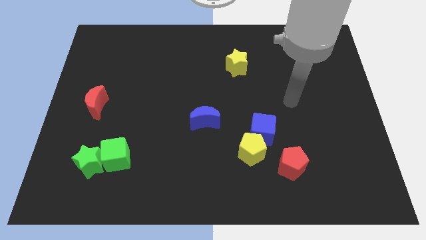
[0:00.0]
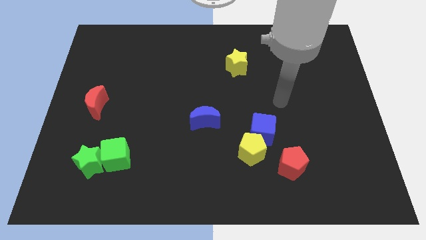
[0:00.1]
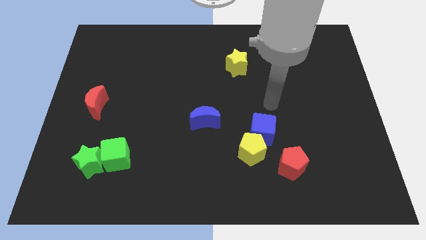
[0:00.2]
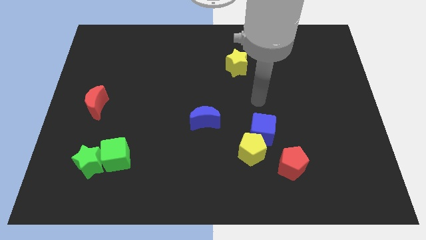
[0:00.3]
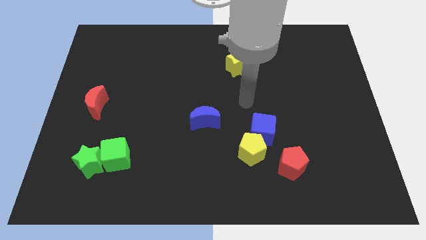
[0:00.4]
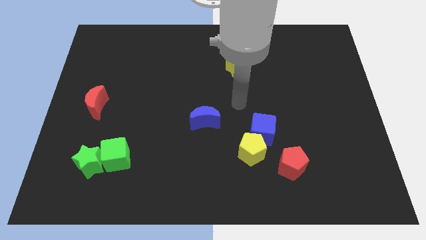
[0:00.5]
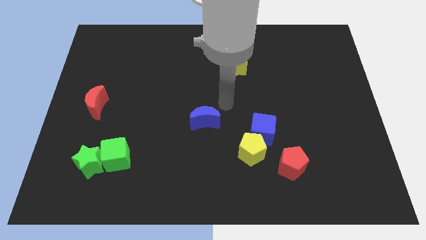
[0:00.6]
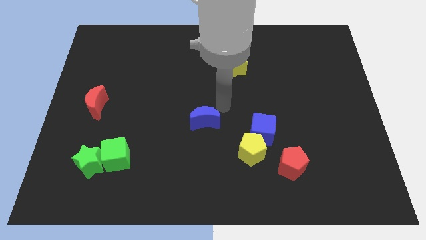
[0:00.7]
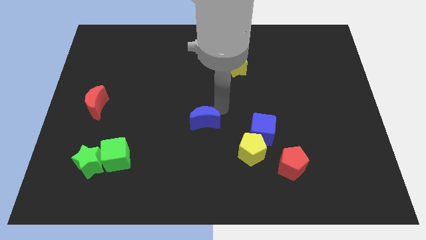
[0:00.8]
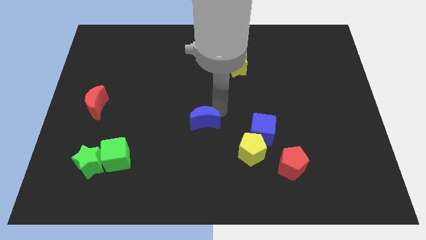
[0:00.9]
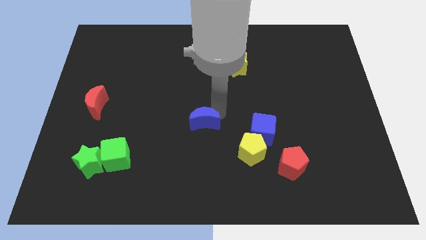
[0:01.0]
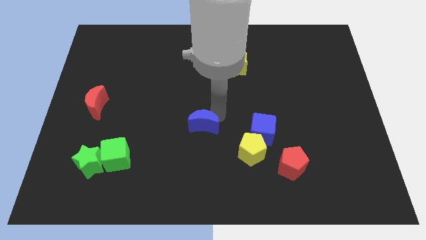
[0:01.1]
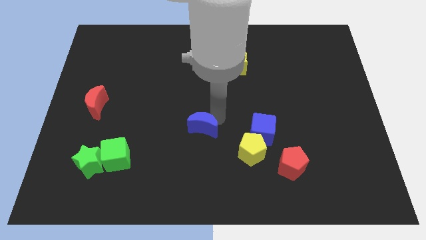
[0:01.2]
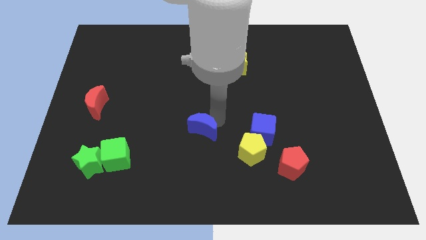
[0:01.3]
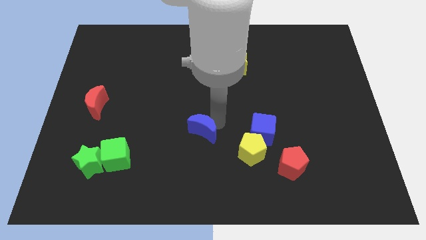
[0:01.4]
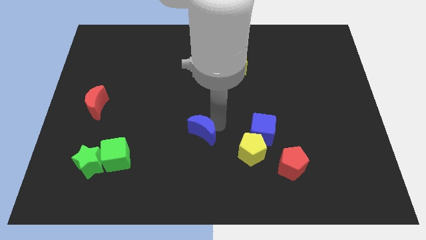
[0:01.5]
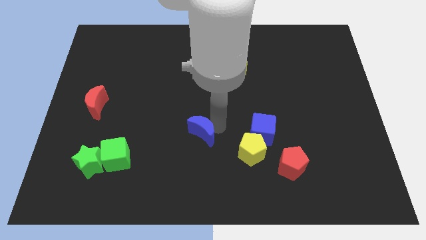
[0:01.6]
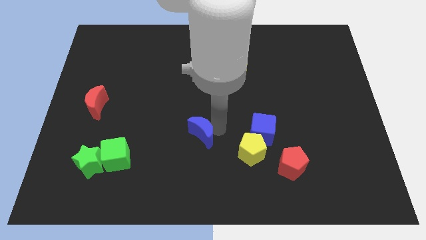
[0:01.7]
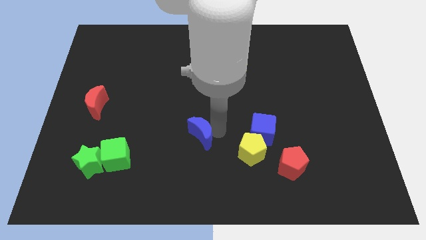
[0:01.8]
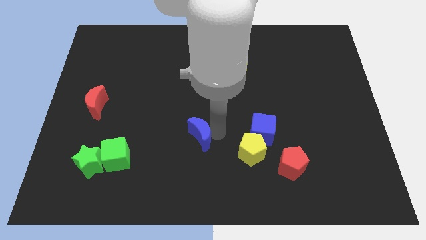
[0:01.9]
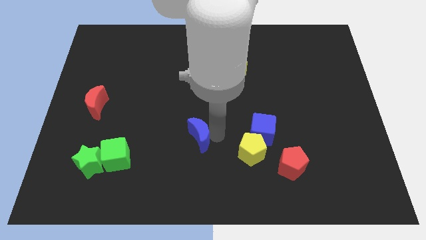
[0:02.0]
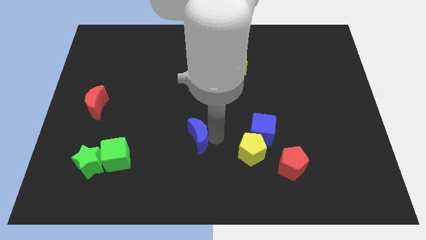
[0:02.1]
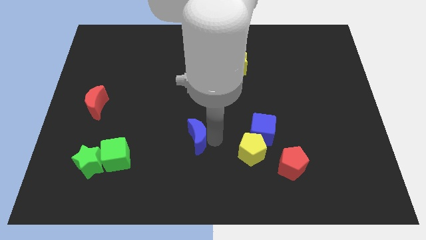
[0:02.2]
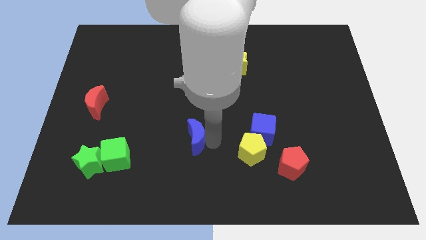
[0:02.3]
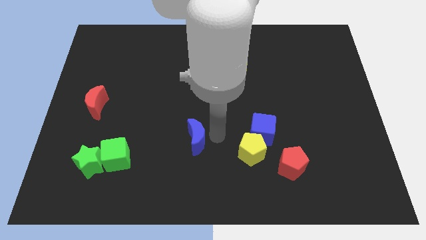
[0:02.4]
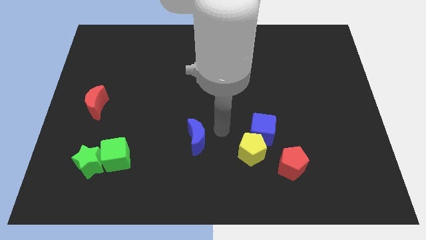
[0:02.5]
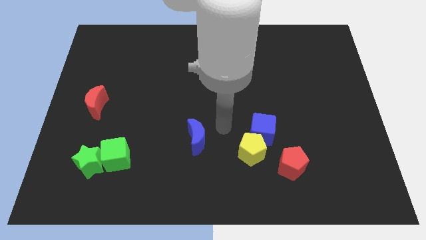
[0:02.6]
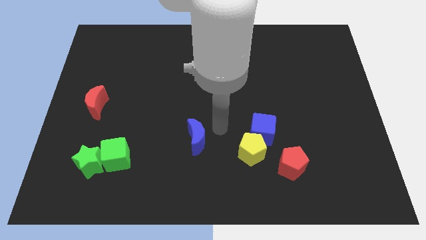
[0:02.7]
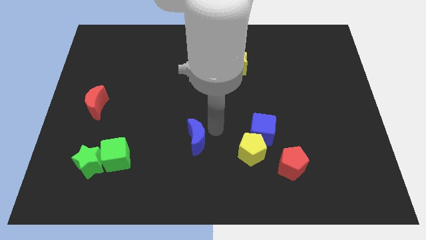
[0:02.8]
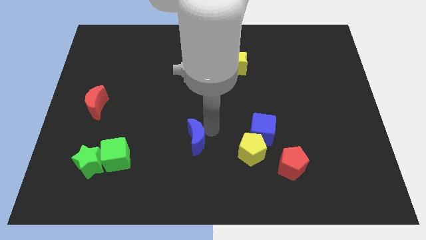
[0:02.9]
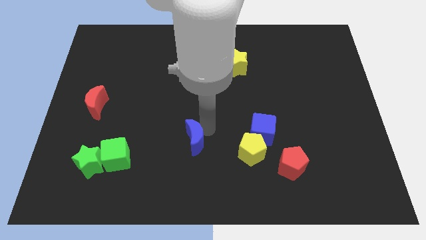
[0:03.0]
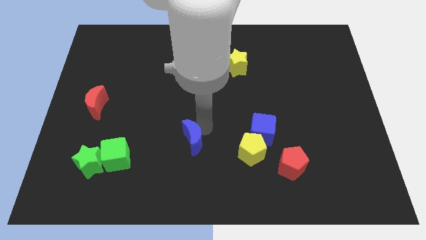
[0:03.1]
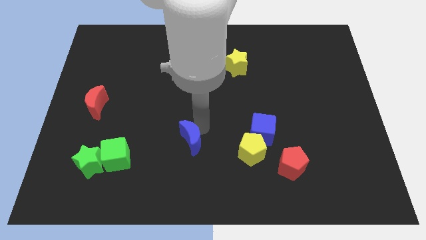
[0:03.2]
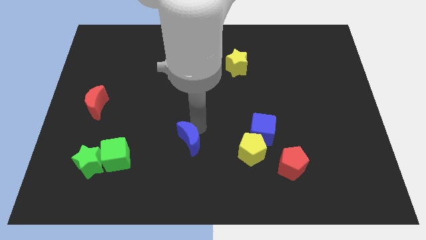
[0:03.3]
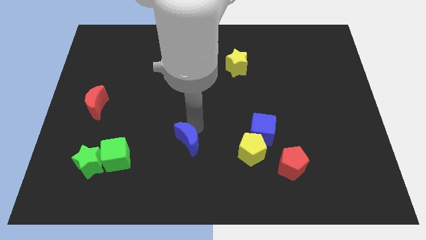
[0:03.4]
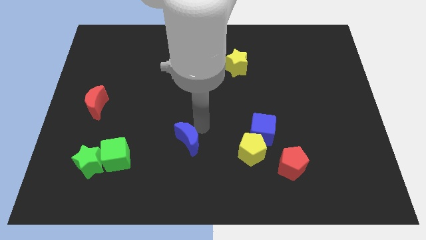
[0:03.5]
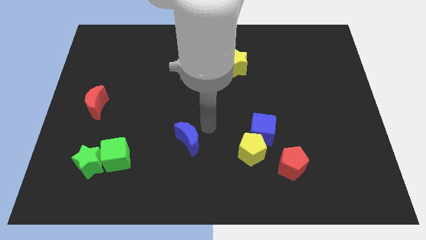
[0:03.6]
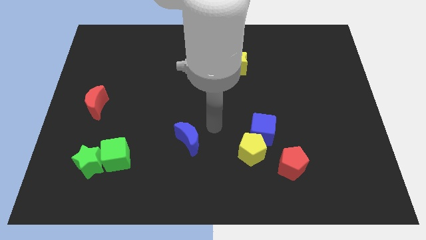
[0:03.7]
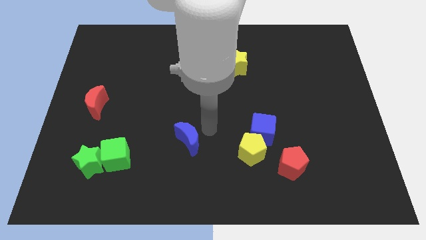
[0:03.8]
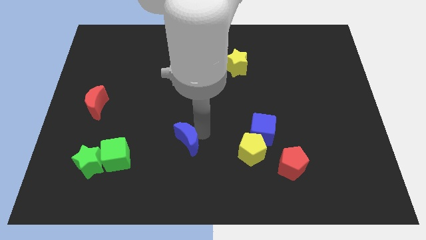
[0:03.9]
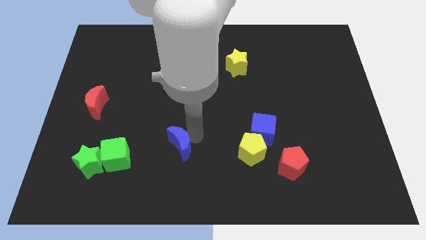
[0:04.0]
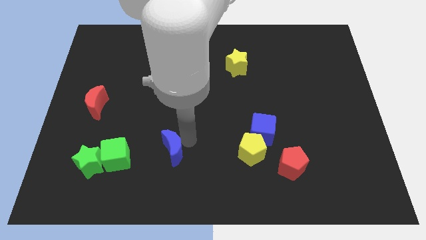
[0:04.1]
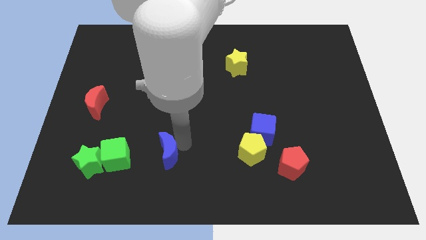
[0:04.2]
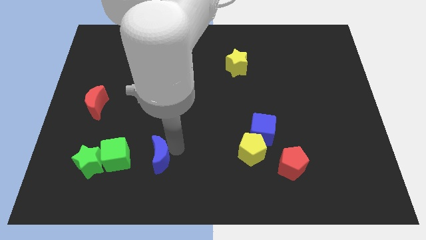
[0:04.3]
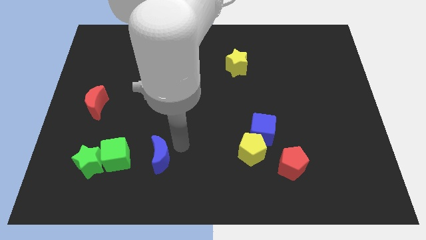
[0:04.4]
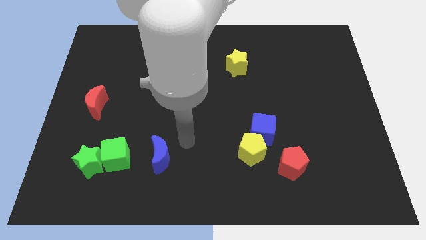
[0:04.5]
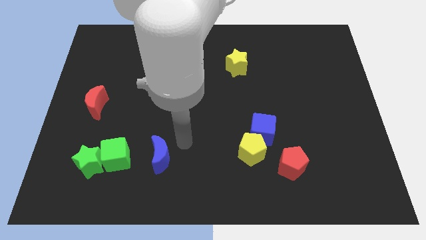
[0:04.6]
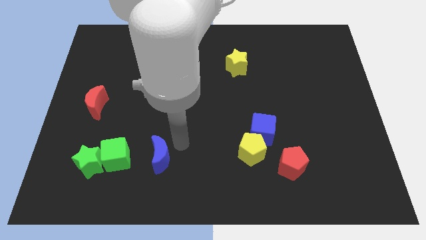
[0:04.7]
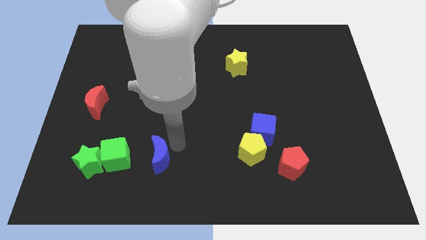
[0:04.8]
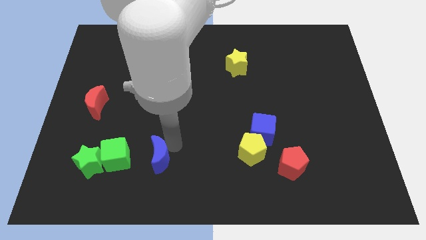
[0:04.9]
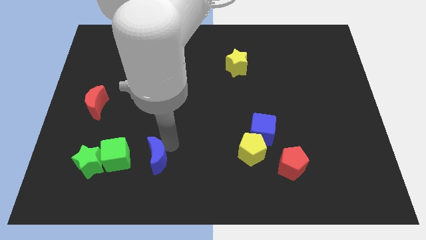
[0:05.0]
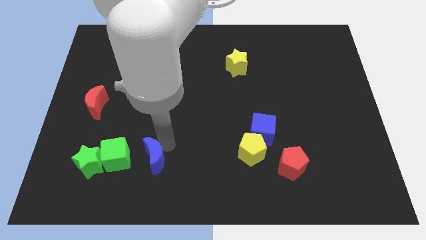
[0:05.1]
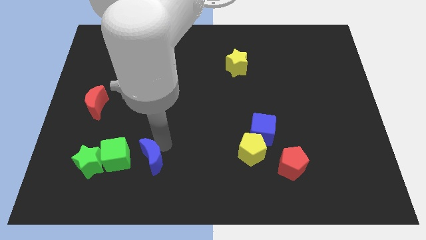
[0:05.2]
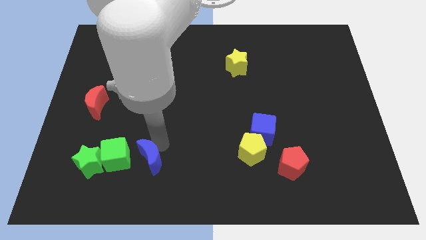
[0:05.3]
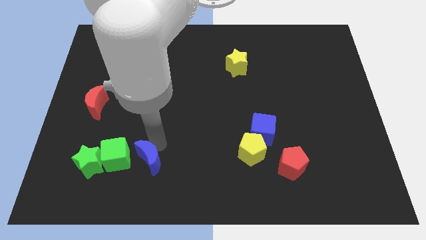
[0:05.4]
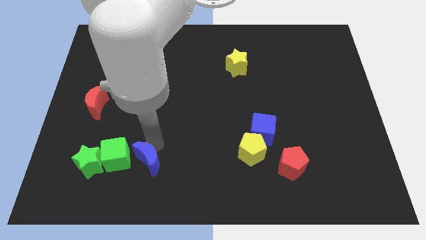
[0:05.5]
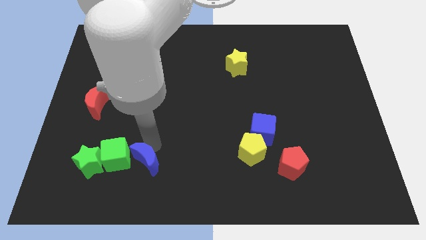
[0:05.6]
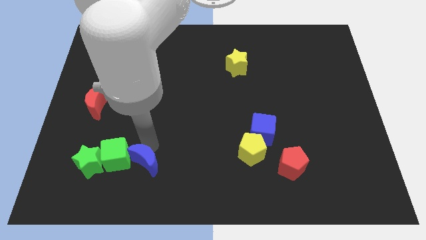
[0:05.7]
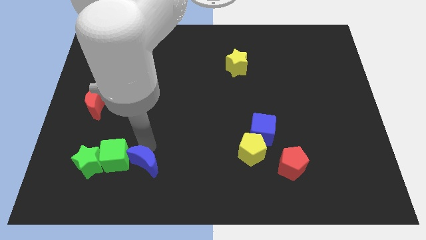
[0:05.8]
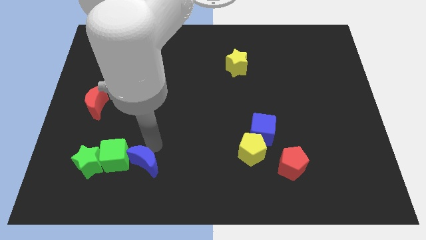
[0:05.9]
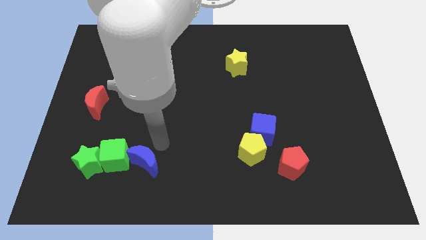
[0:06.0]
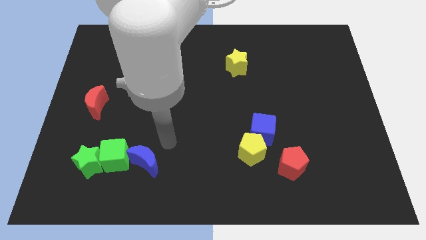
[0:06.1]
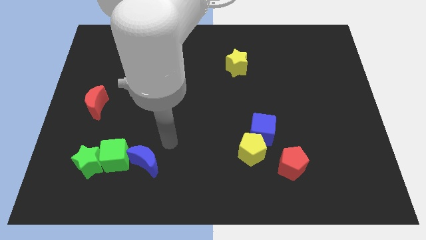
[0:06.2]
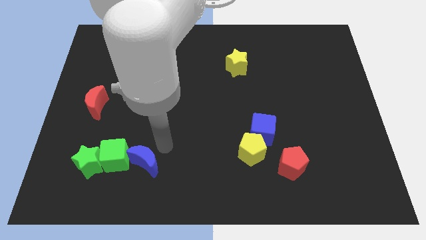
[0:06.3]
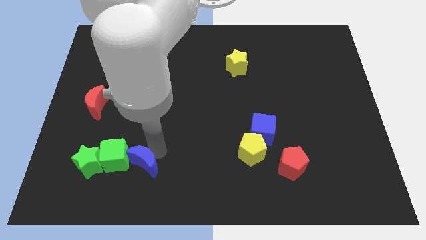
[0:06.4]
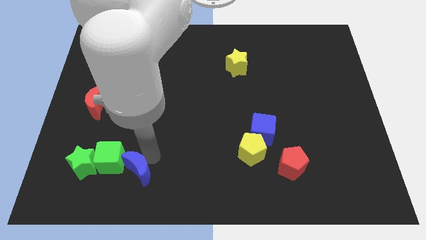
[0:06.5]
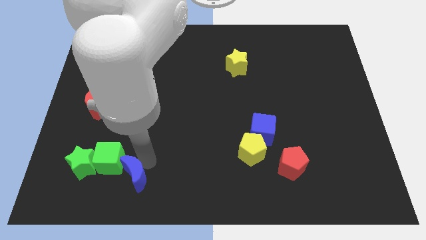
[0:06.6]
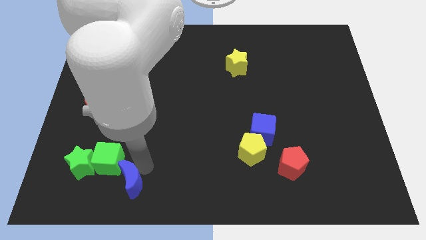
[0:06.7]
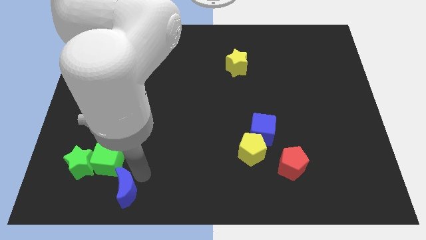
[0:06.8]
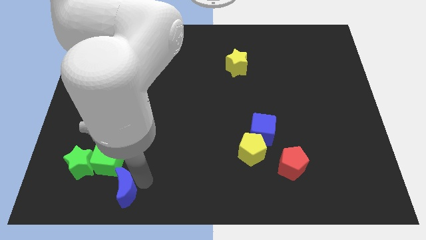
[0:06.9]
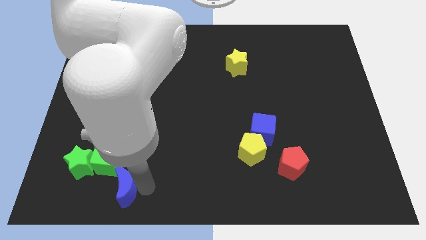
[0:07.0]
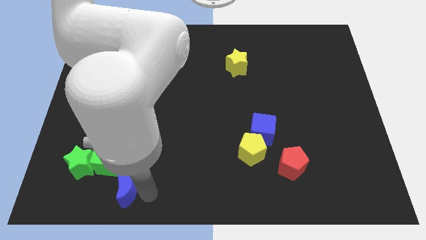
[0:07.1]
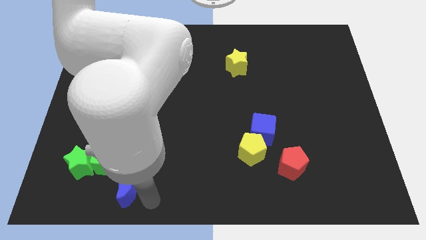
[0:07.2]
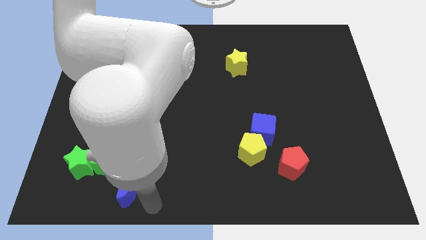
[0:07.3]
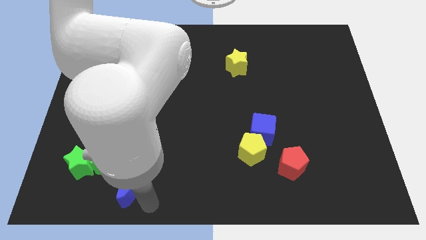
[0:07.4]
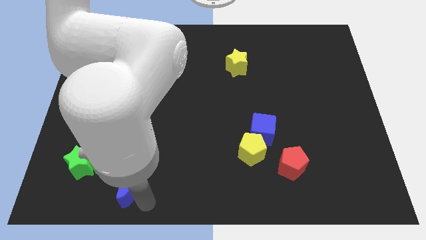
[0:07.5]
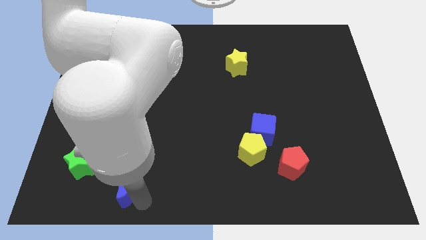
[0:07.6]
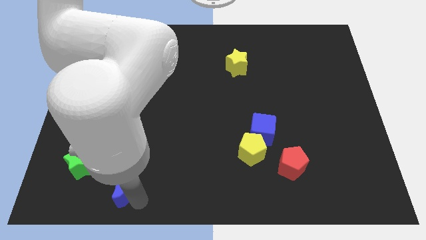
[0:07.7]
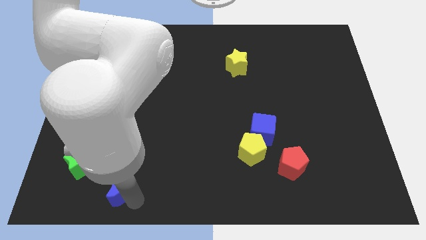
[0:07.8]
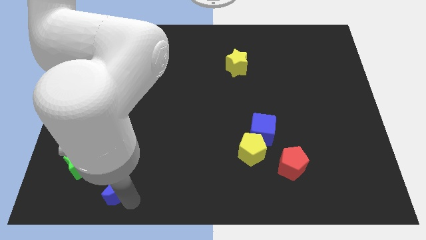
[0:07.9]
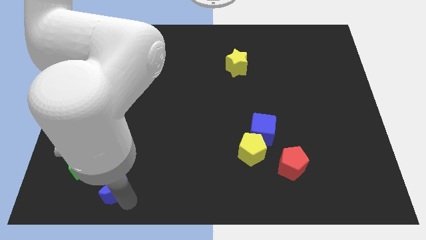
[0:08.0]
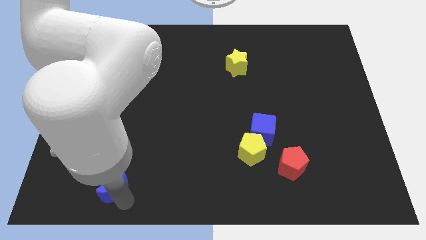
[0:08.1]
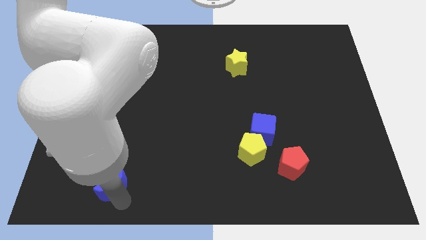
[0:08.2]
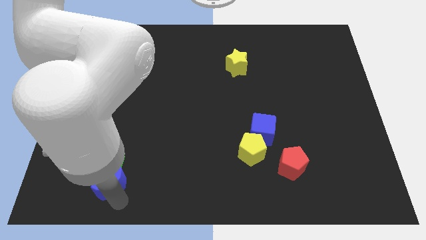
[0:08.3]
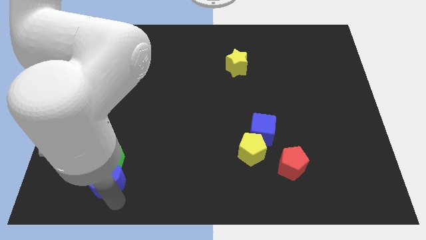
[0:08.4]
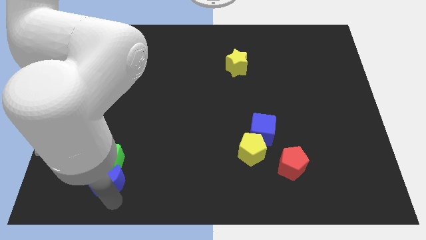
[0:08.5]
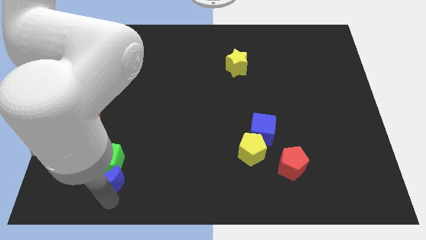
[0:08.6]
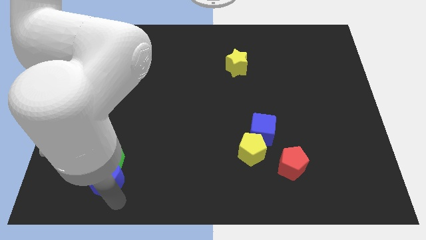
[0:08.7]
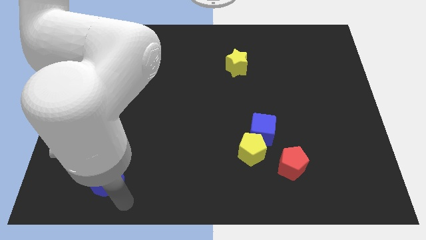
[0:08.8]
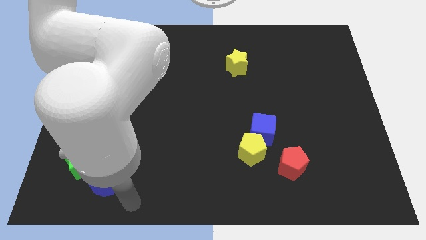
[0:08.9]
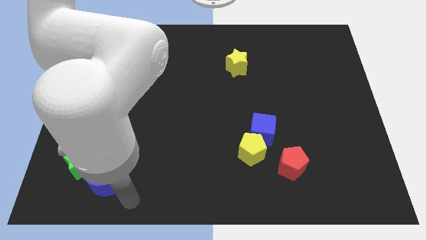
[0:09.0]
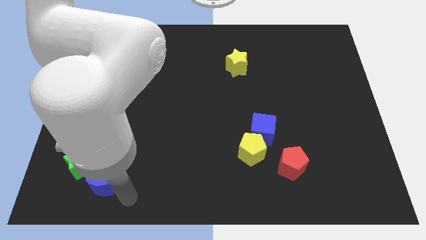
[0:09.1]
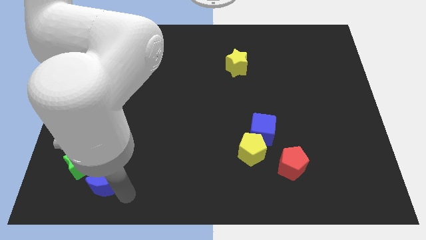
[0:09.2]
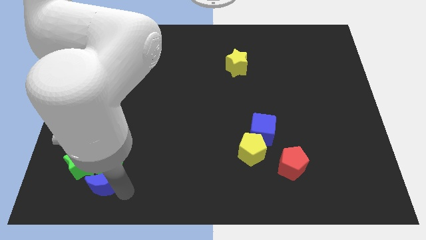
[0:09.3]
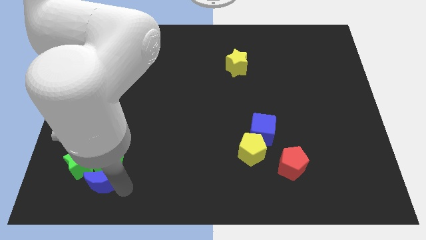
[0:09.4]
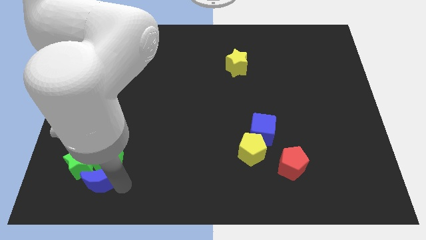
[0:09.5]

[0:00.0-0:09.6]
slide the blue moon towards the green star
